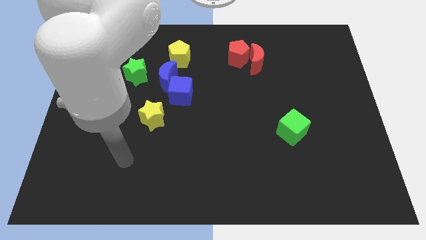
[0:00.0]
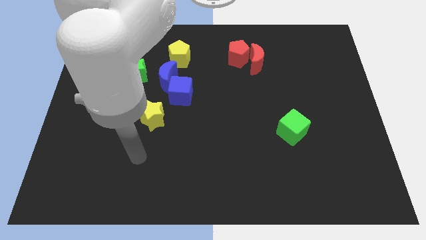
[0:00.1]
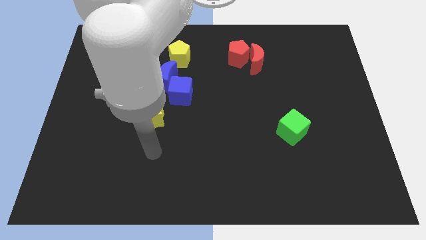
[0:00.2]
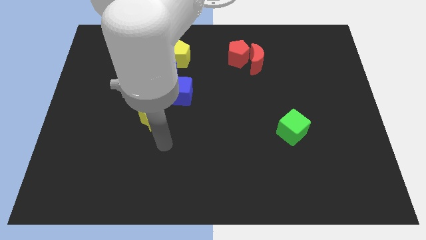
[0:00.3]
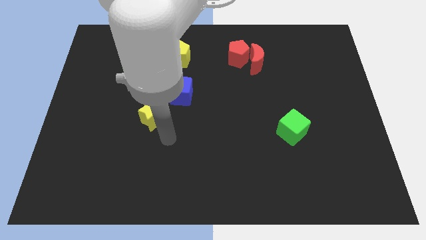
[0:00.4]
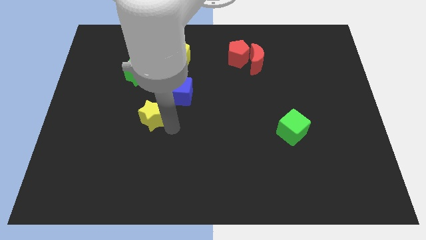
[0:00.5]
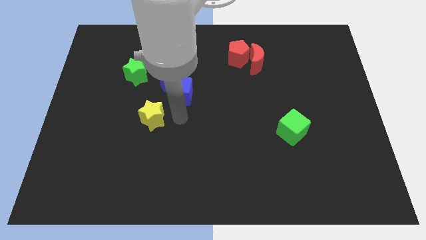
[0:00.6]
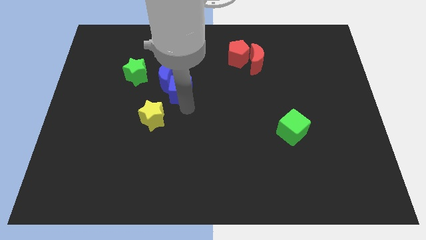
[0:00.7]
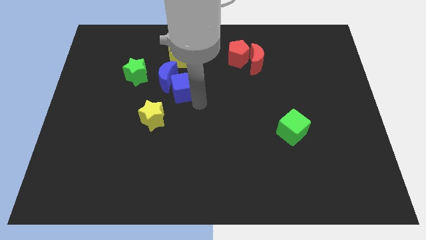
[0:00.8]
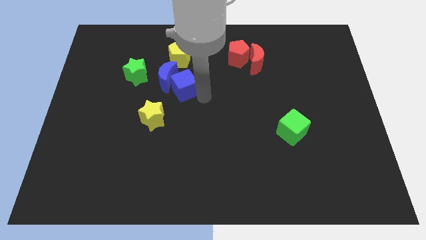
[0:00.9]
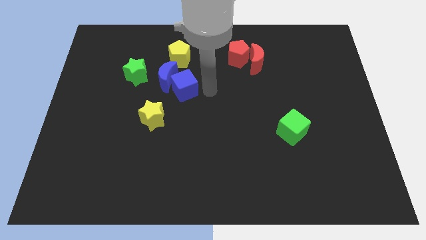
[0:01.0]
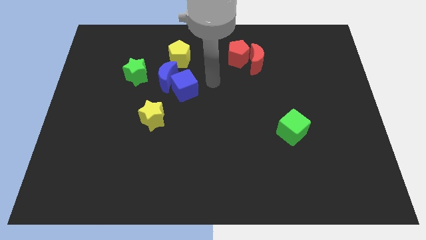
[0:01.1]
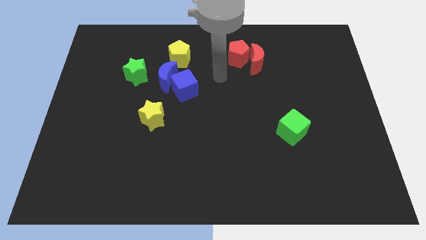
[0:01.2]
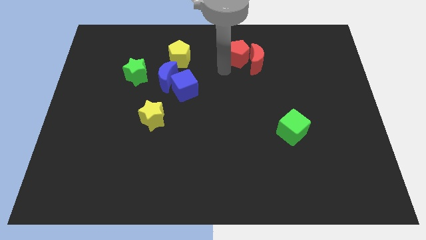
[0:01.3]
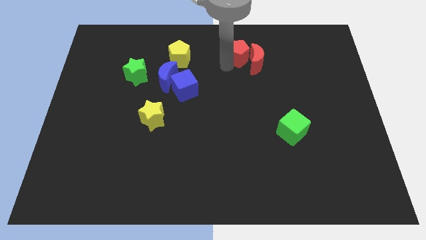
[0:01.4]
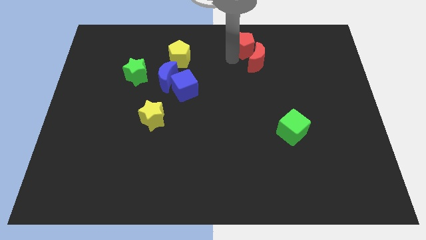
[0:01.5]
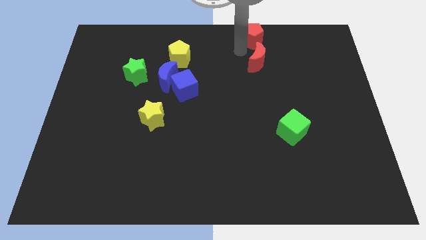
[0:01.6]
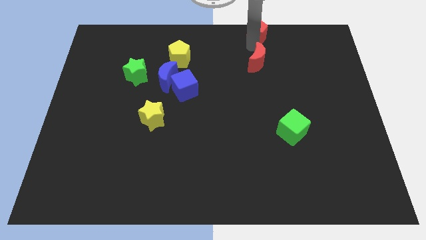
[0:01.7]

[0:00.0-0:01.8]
separate the red moon from the red pentagon

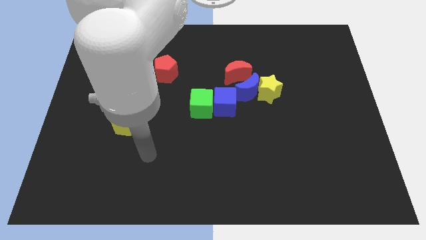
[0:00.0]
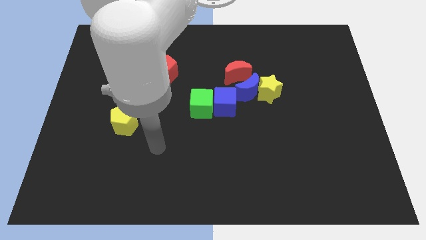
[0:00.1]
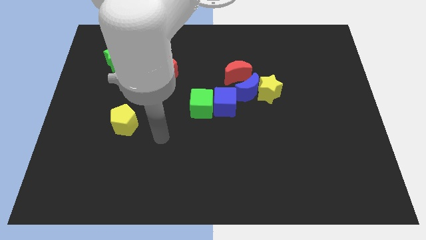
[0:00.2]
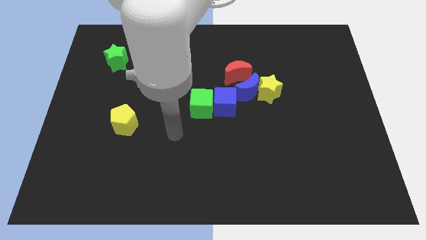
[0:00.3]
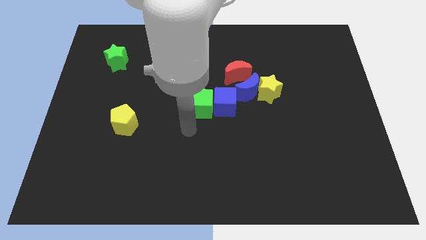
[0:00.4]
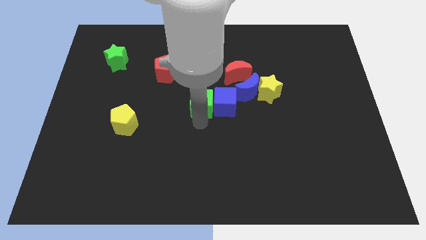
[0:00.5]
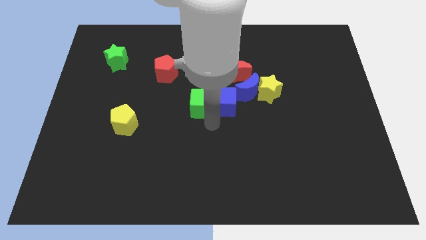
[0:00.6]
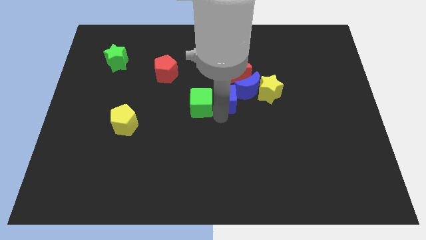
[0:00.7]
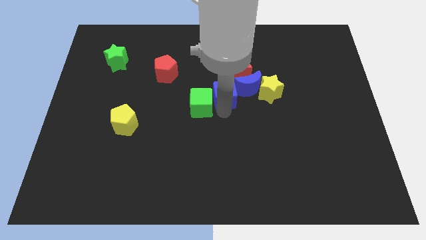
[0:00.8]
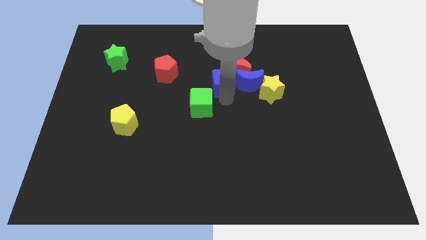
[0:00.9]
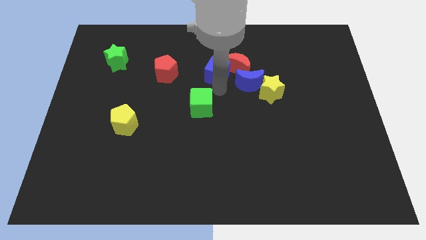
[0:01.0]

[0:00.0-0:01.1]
pull the green cube apart from the blue cube

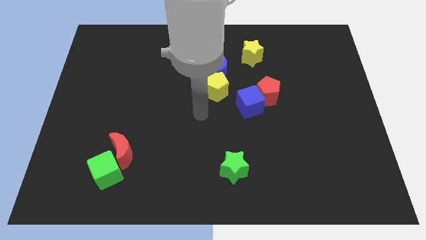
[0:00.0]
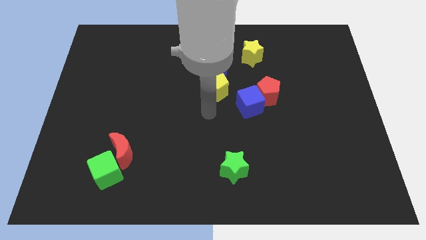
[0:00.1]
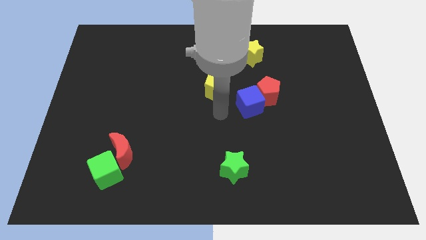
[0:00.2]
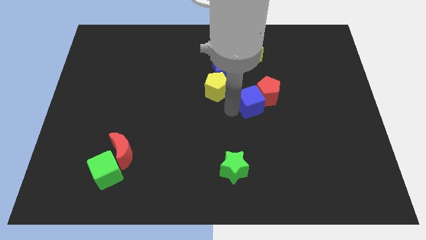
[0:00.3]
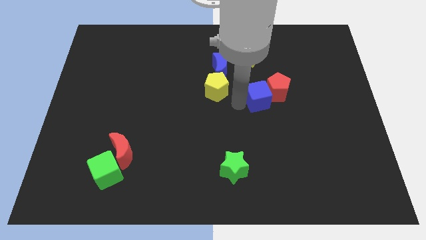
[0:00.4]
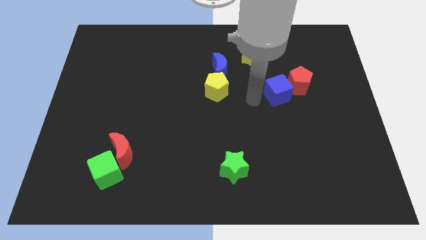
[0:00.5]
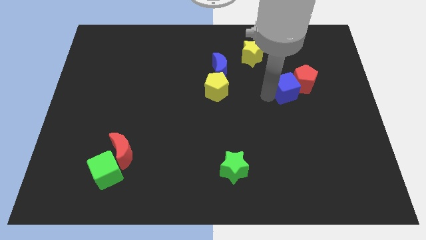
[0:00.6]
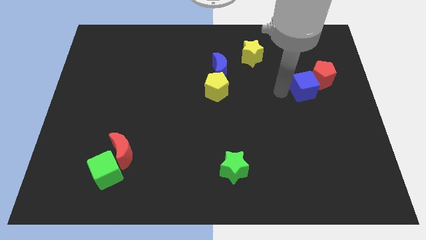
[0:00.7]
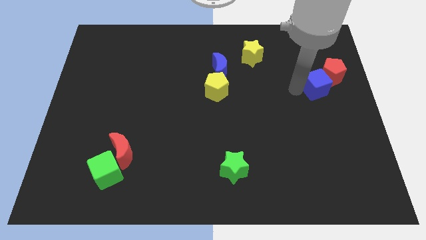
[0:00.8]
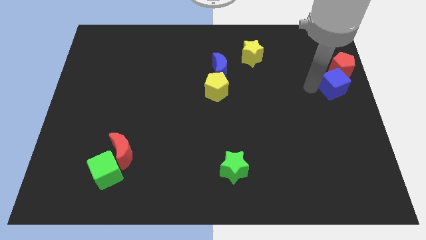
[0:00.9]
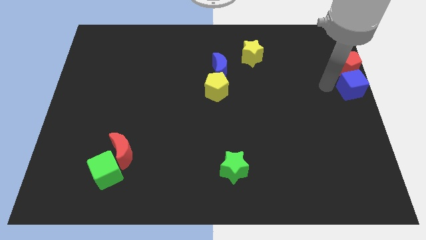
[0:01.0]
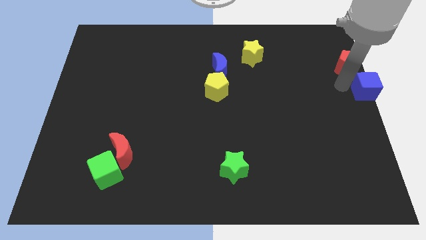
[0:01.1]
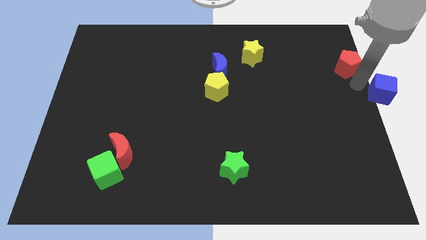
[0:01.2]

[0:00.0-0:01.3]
separate the red pentagon from the blue cube

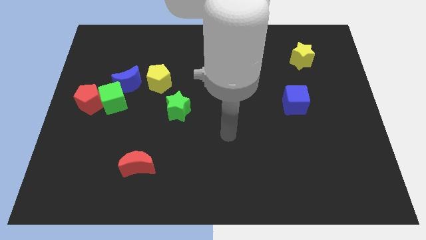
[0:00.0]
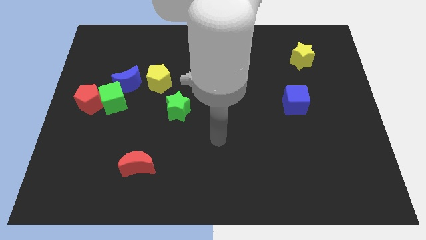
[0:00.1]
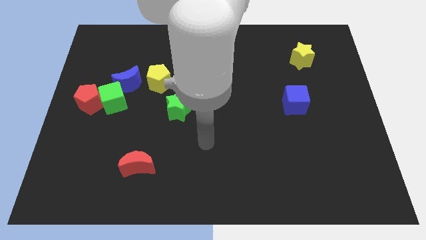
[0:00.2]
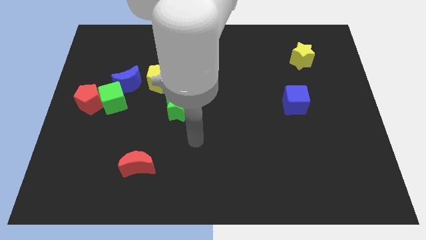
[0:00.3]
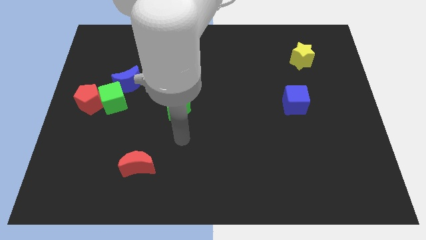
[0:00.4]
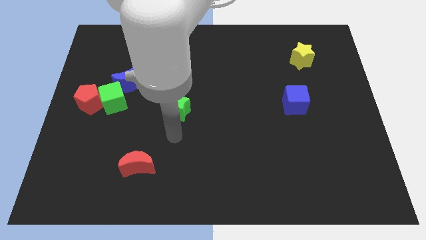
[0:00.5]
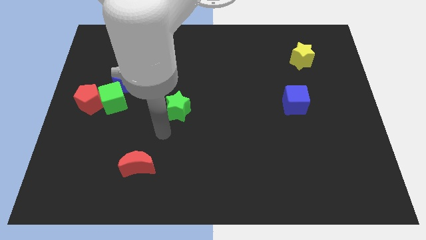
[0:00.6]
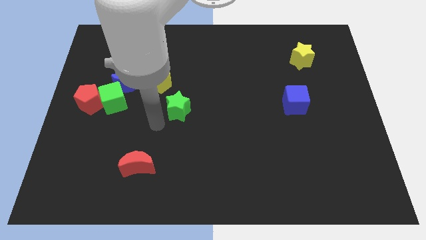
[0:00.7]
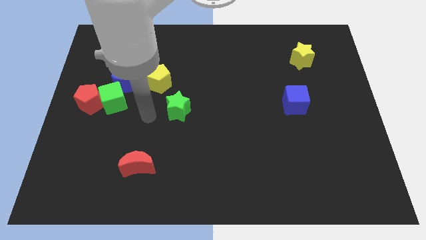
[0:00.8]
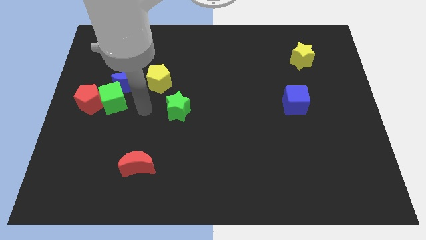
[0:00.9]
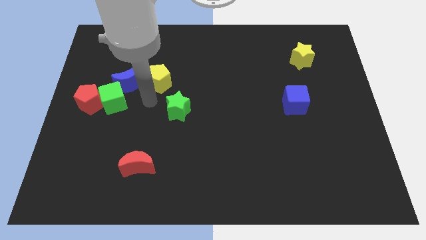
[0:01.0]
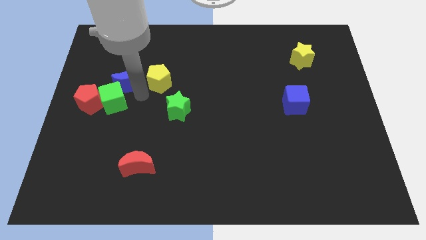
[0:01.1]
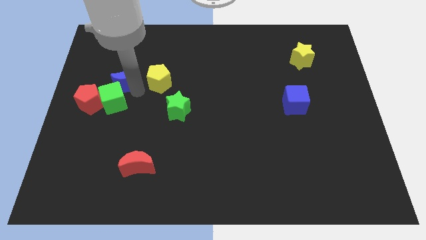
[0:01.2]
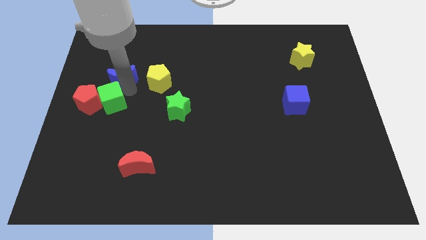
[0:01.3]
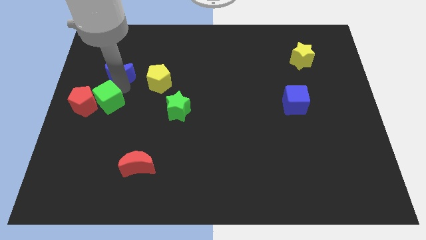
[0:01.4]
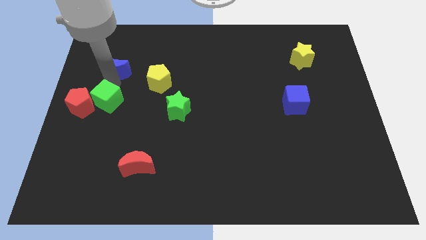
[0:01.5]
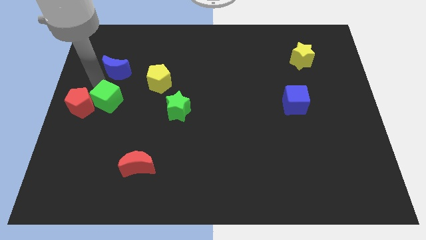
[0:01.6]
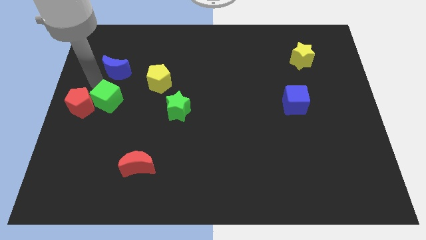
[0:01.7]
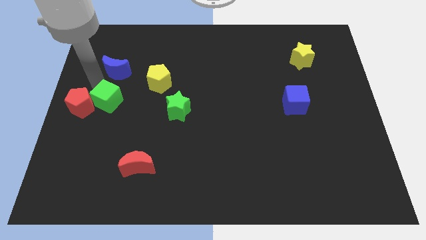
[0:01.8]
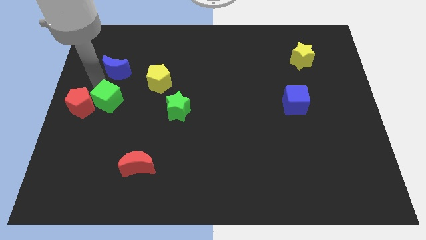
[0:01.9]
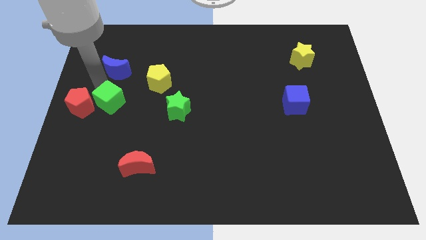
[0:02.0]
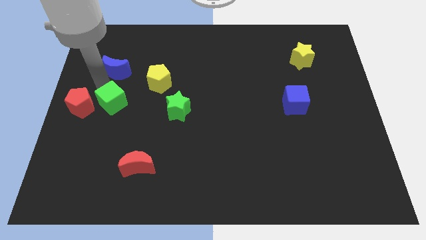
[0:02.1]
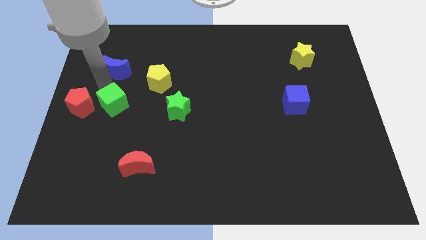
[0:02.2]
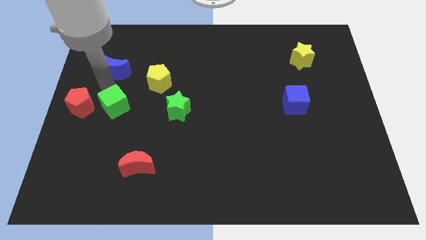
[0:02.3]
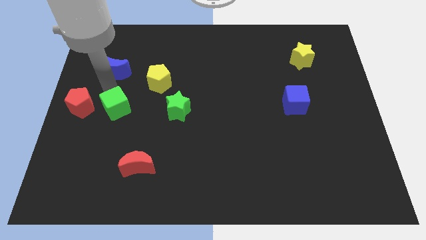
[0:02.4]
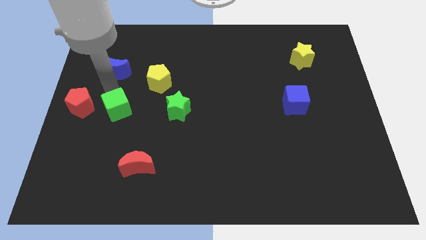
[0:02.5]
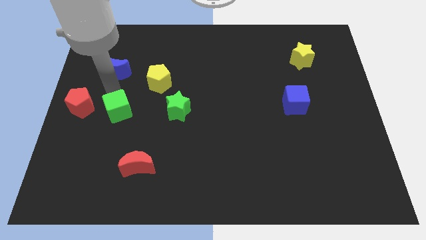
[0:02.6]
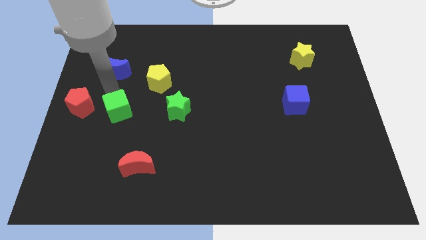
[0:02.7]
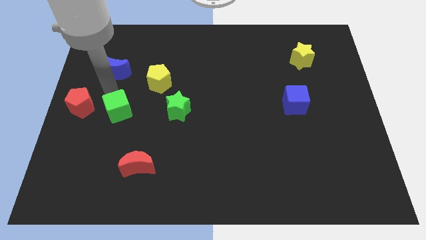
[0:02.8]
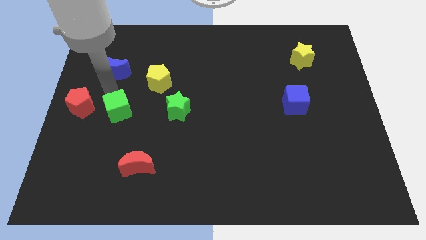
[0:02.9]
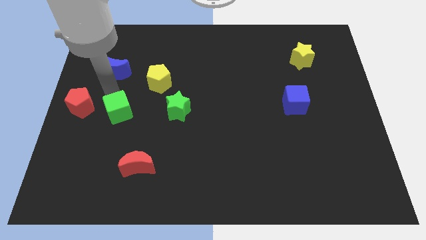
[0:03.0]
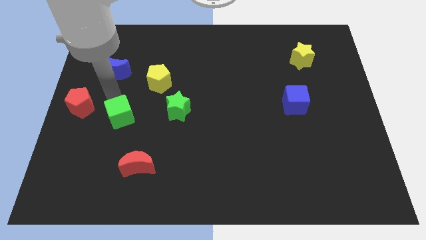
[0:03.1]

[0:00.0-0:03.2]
move the green cube away from the red pentagon and blue moon

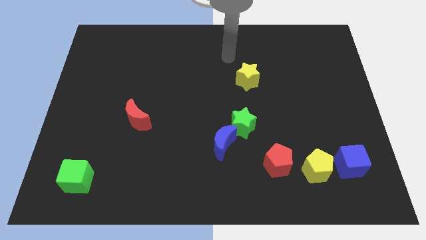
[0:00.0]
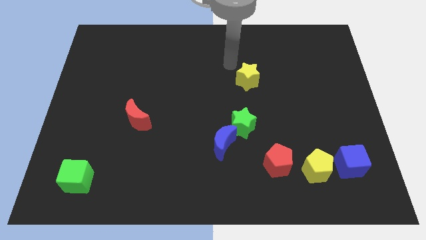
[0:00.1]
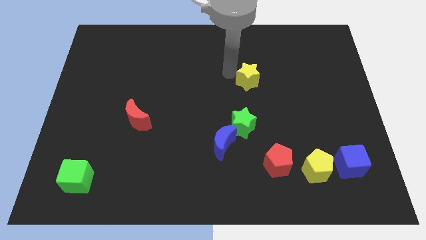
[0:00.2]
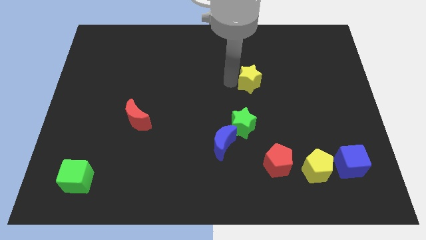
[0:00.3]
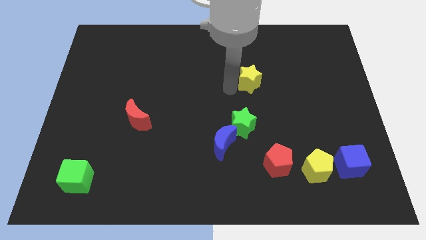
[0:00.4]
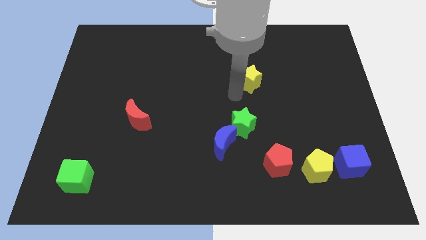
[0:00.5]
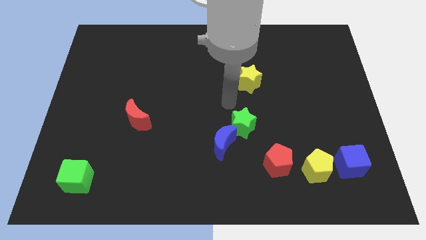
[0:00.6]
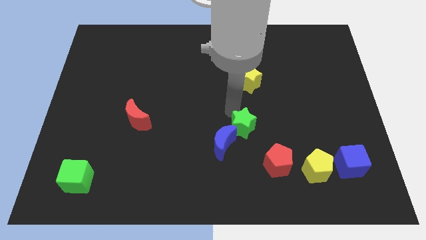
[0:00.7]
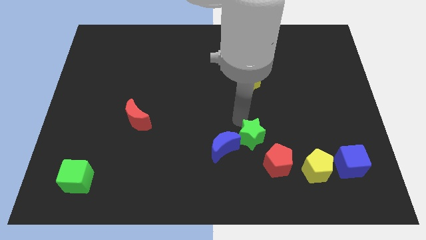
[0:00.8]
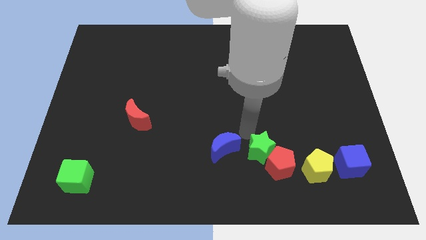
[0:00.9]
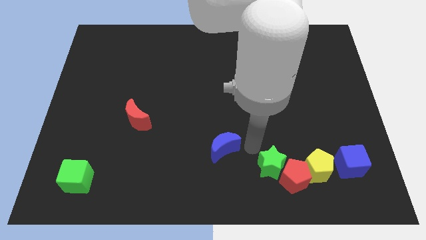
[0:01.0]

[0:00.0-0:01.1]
pull the blue moon apart from the green star

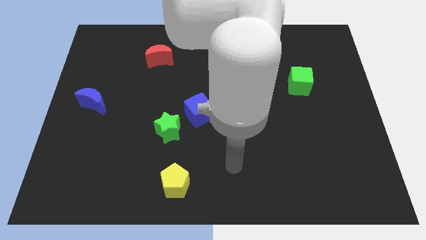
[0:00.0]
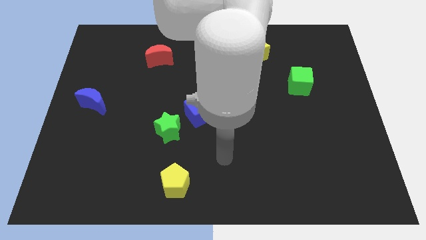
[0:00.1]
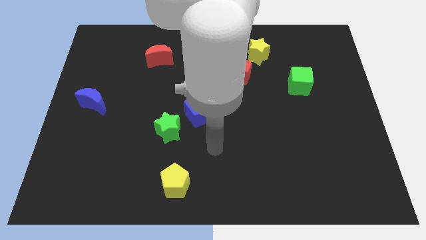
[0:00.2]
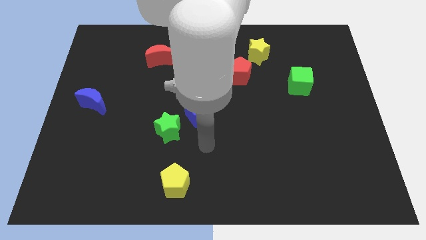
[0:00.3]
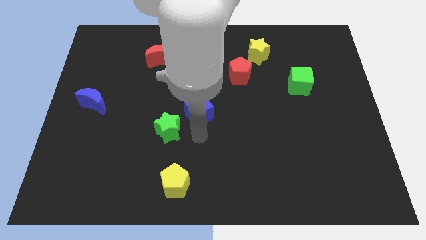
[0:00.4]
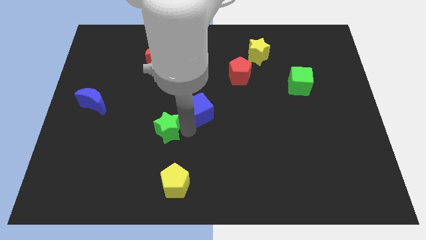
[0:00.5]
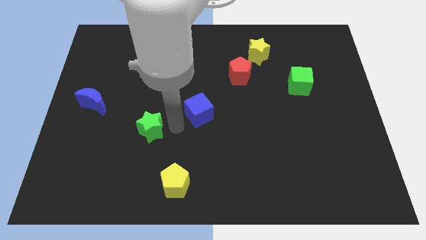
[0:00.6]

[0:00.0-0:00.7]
move the blue cube away from the green star

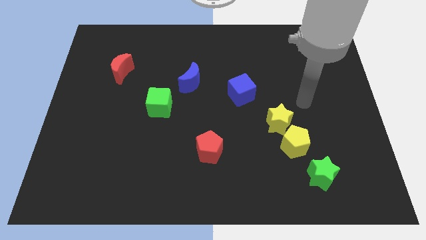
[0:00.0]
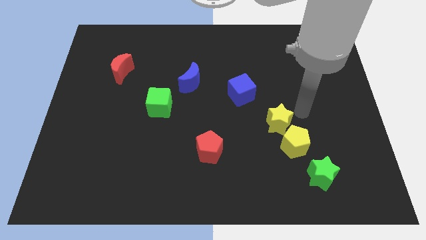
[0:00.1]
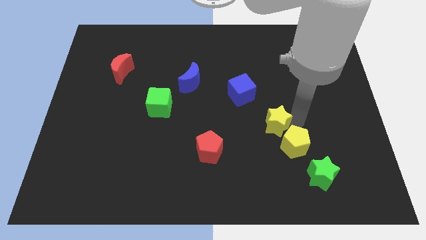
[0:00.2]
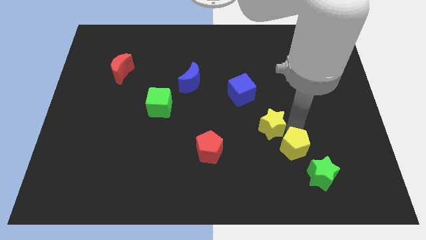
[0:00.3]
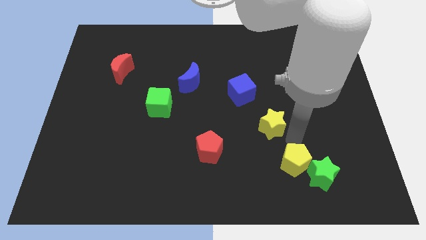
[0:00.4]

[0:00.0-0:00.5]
separate the yellow star from the yellow pentagon
